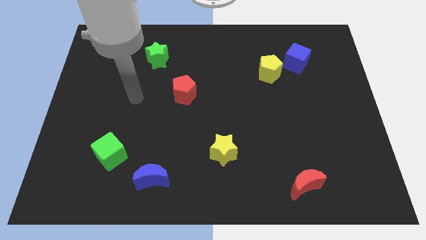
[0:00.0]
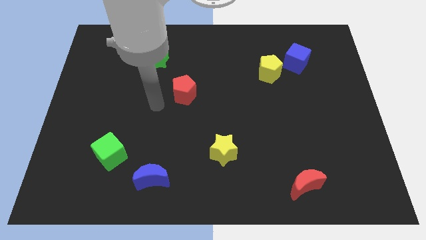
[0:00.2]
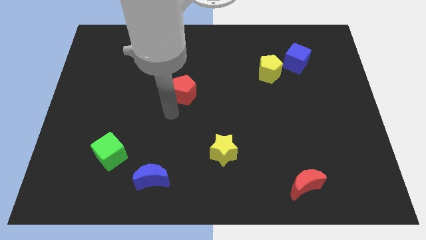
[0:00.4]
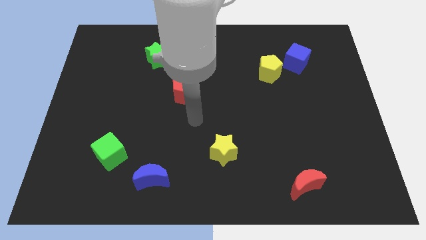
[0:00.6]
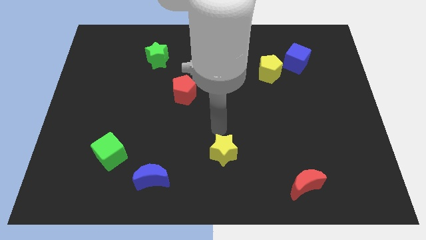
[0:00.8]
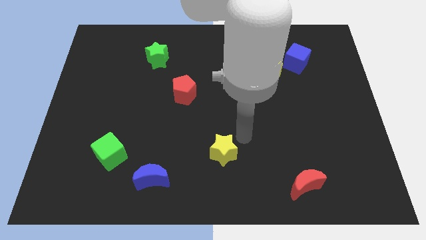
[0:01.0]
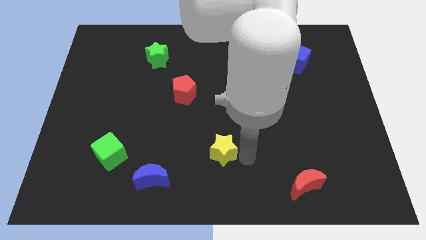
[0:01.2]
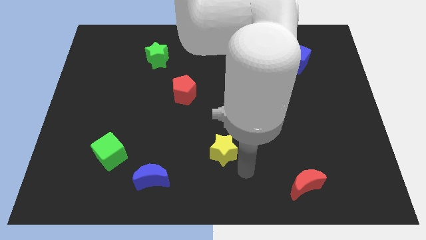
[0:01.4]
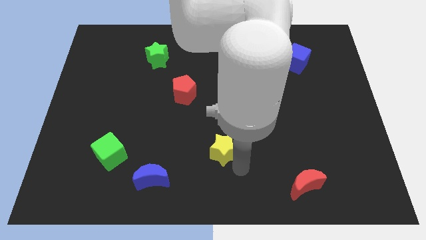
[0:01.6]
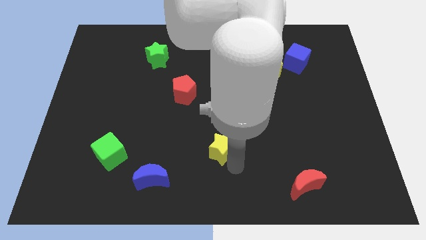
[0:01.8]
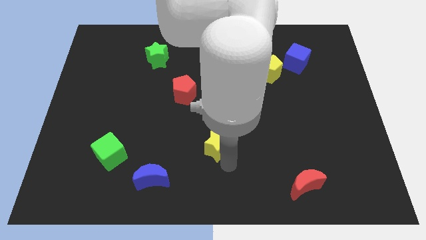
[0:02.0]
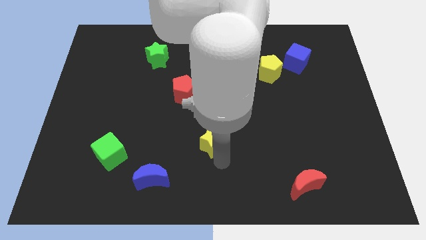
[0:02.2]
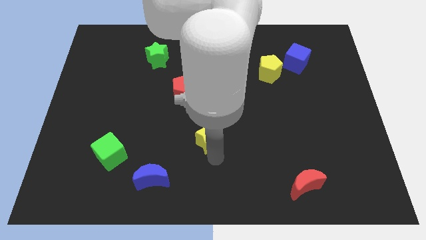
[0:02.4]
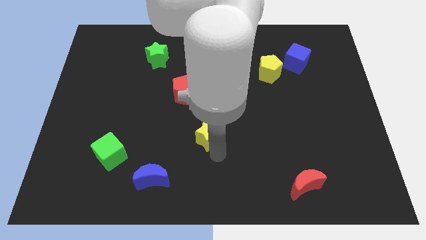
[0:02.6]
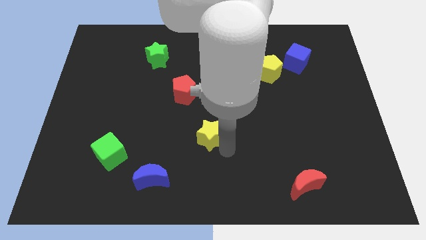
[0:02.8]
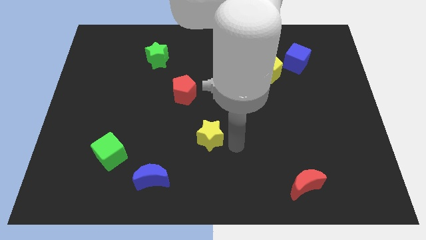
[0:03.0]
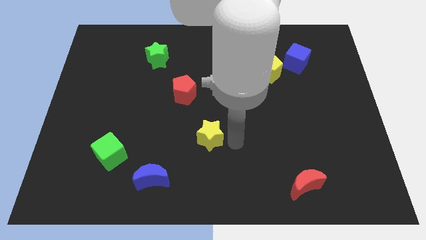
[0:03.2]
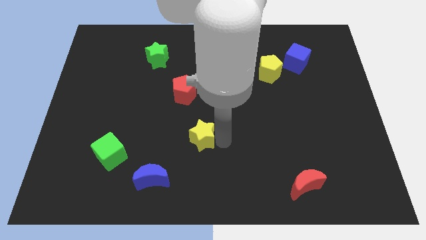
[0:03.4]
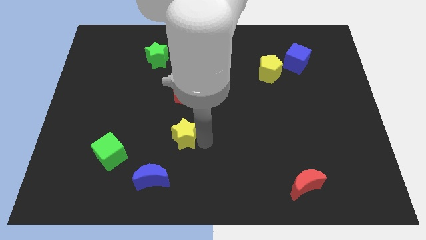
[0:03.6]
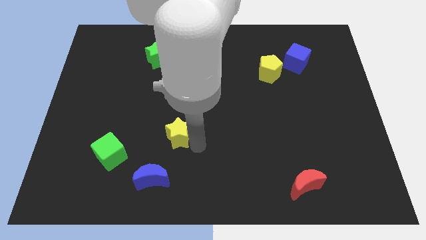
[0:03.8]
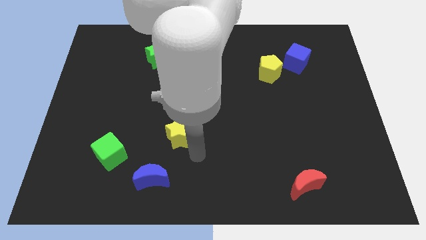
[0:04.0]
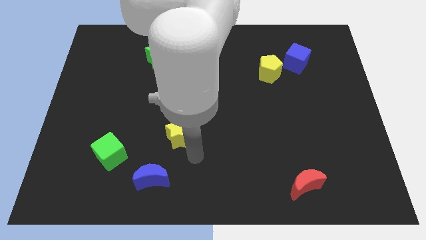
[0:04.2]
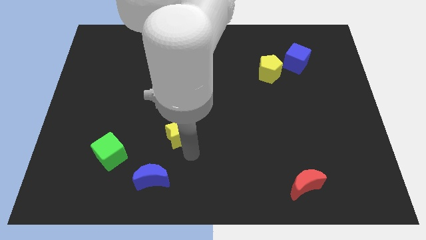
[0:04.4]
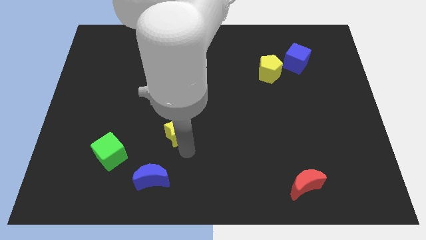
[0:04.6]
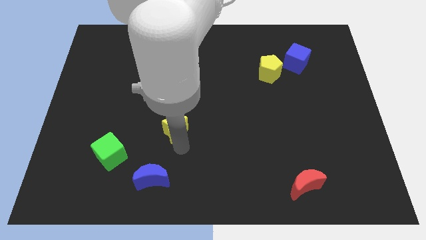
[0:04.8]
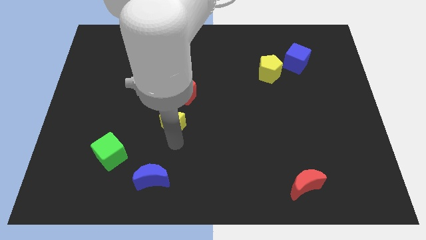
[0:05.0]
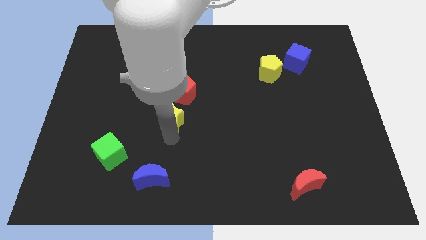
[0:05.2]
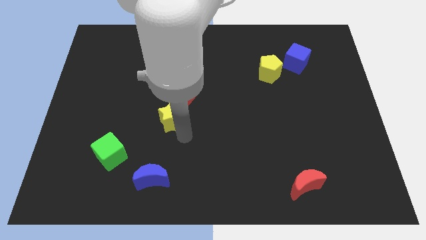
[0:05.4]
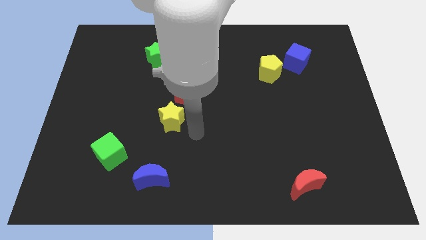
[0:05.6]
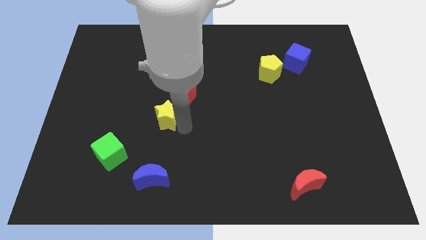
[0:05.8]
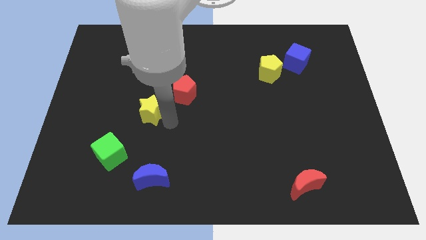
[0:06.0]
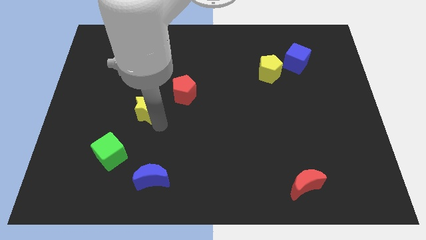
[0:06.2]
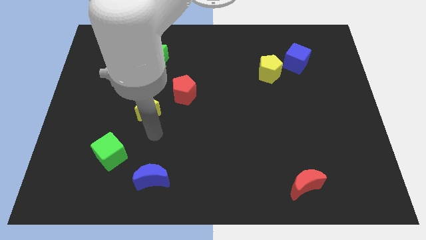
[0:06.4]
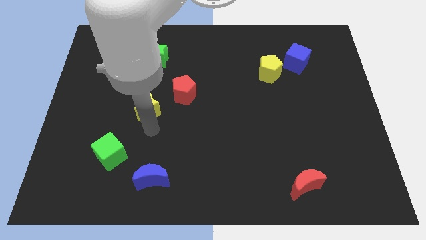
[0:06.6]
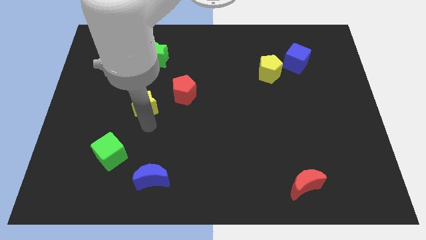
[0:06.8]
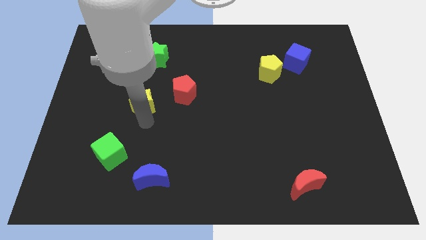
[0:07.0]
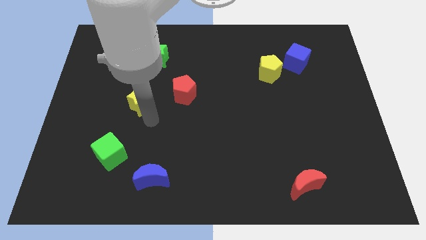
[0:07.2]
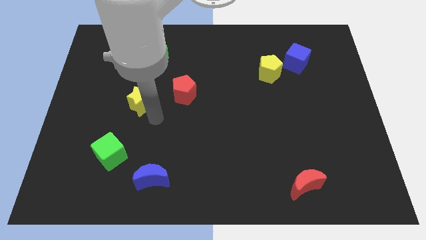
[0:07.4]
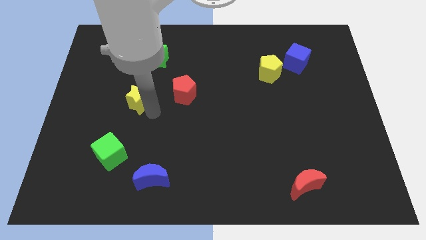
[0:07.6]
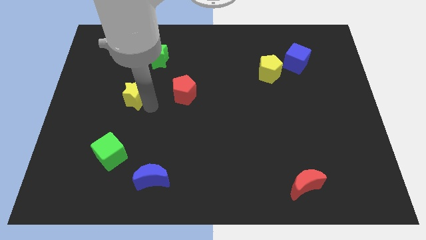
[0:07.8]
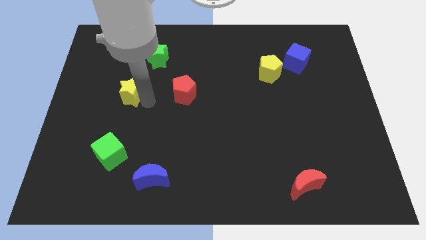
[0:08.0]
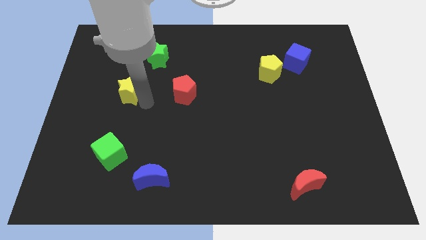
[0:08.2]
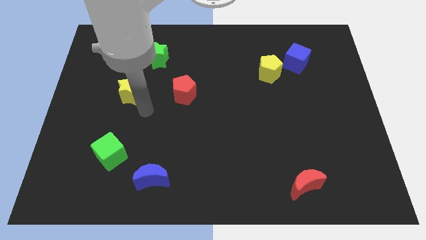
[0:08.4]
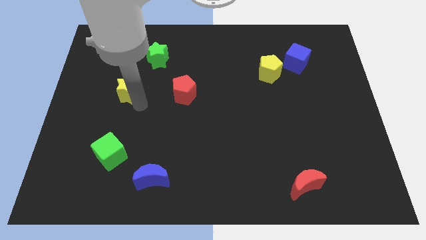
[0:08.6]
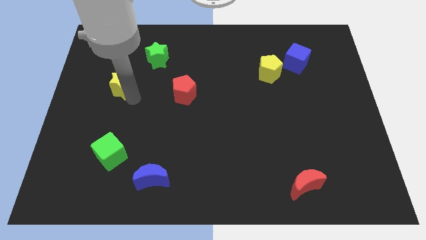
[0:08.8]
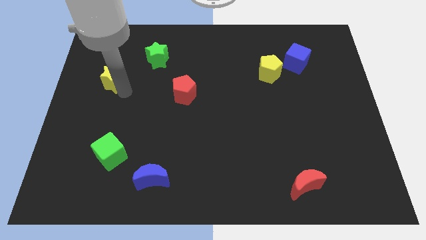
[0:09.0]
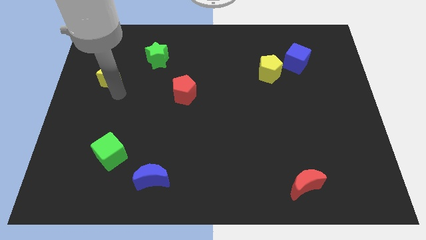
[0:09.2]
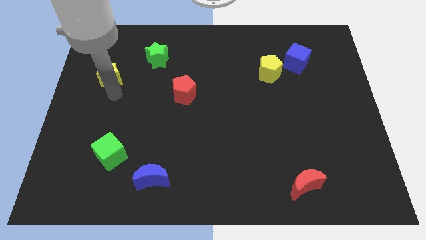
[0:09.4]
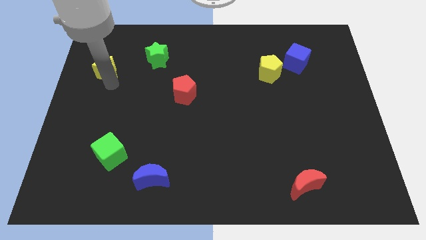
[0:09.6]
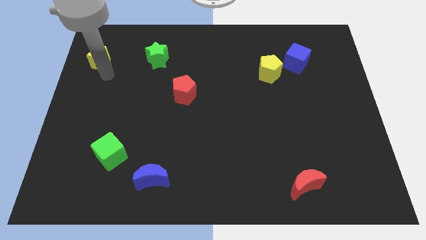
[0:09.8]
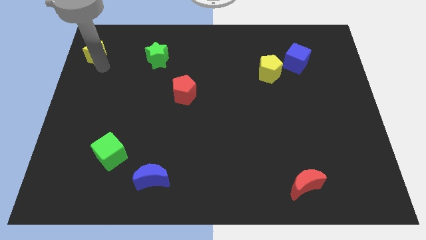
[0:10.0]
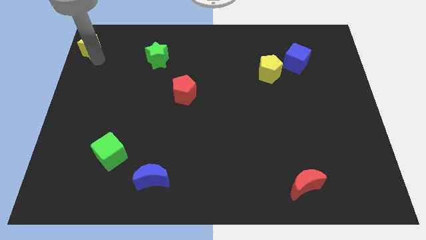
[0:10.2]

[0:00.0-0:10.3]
move the yellow star to the upper left corner

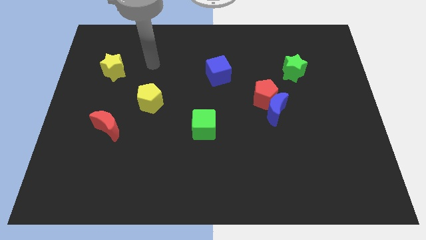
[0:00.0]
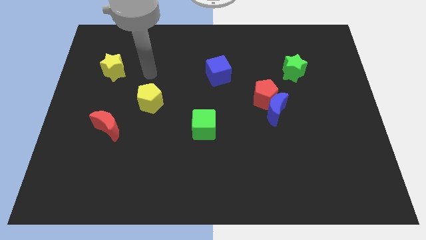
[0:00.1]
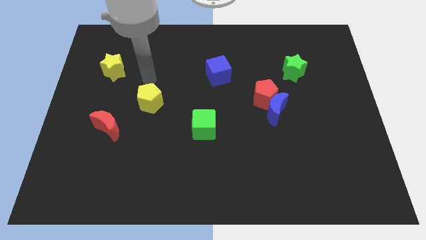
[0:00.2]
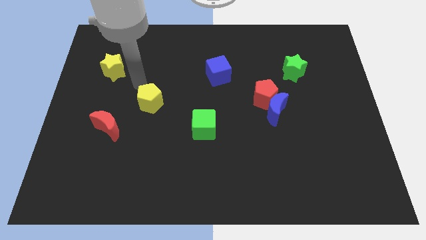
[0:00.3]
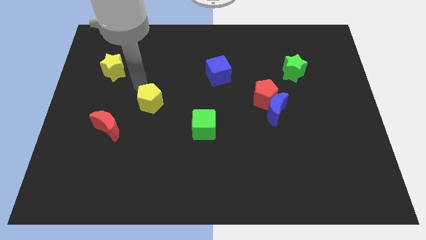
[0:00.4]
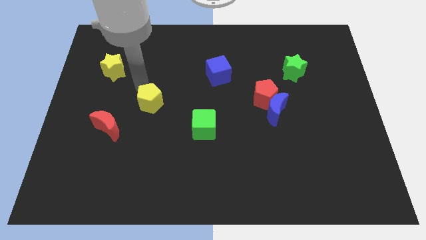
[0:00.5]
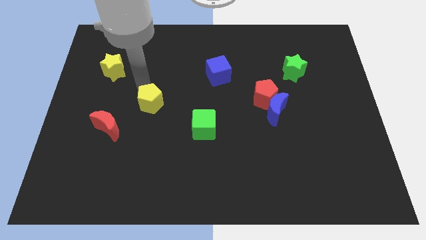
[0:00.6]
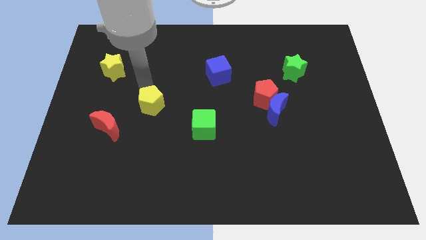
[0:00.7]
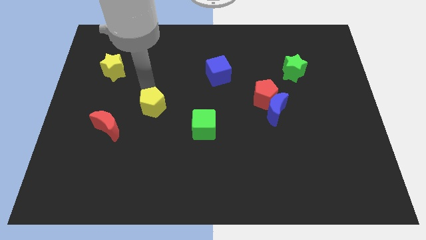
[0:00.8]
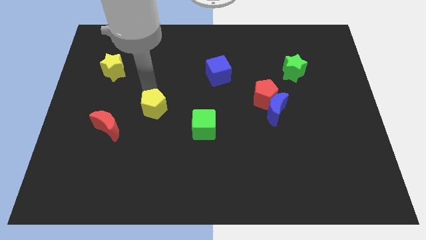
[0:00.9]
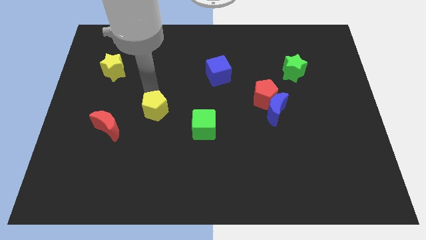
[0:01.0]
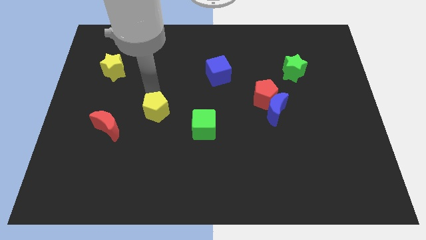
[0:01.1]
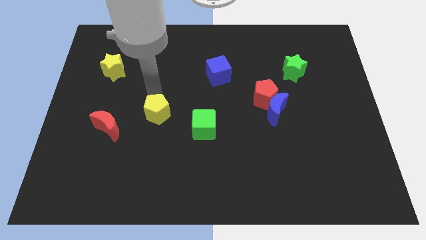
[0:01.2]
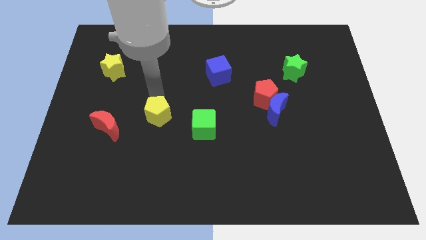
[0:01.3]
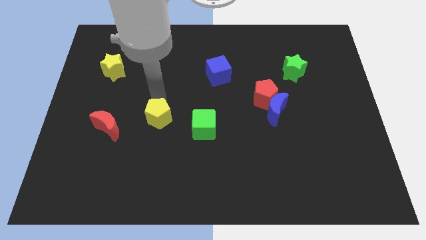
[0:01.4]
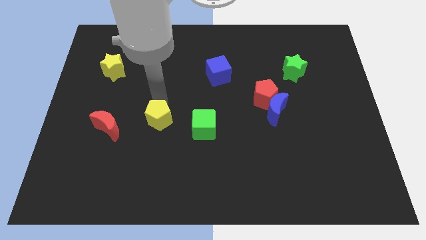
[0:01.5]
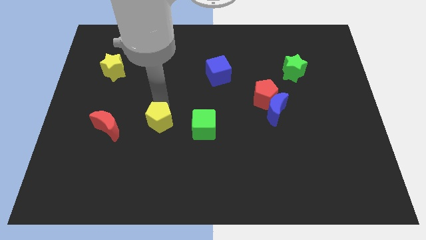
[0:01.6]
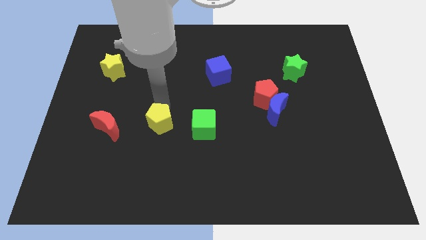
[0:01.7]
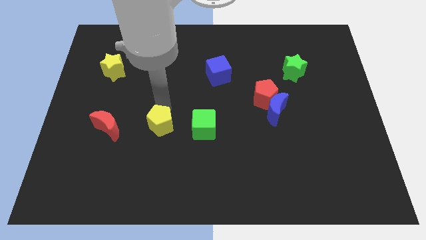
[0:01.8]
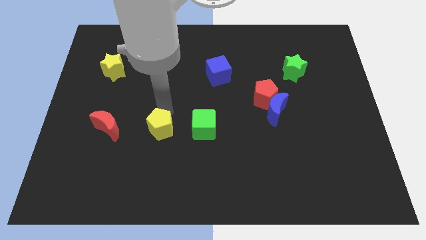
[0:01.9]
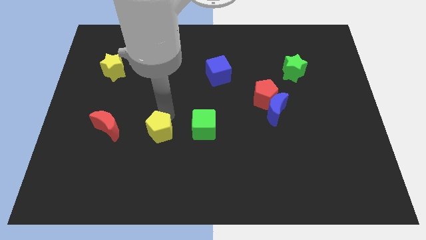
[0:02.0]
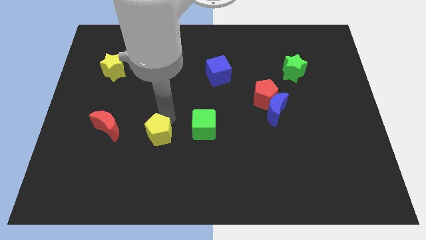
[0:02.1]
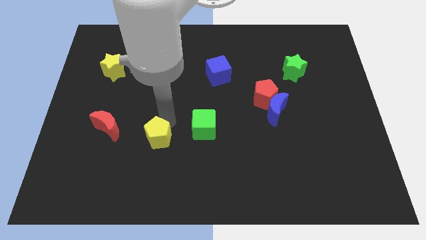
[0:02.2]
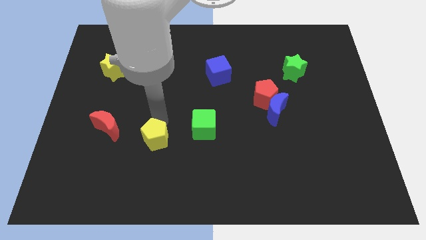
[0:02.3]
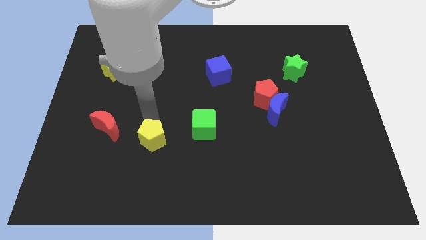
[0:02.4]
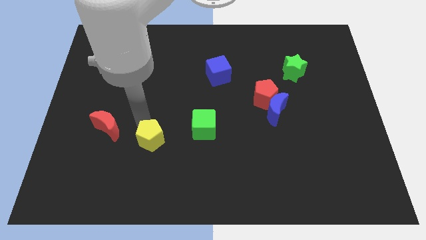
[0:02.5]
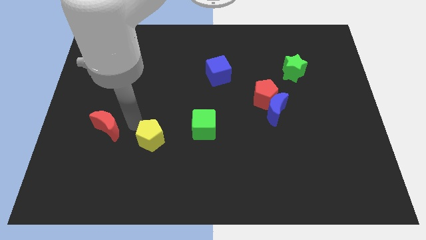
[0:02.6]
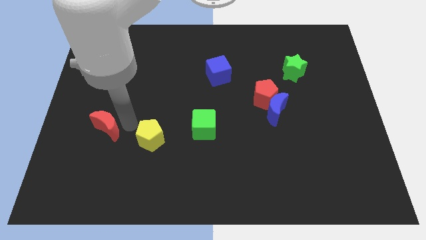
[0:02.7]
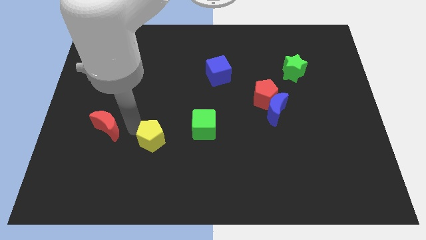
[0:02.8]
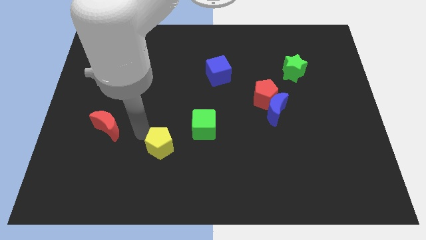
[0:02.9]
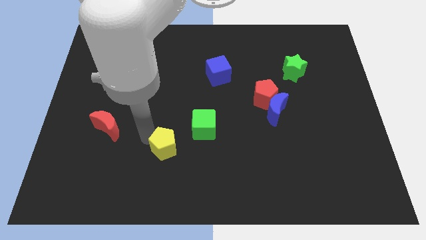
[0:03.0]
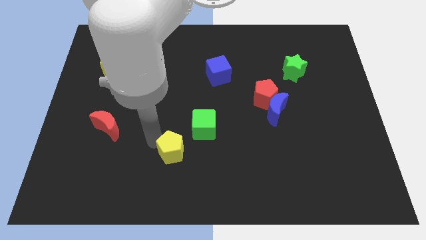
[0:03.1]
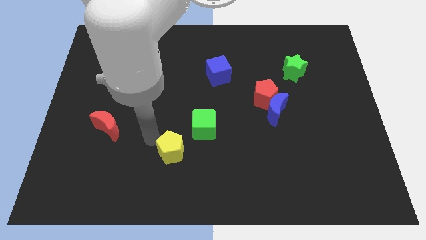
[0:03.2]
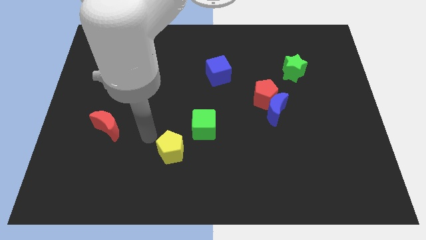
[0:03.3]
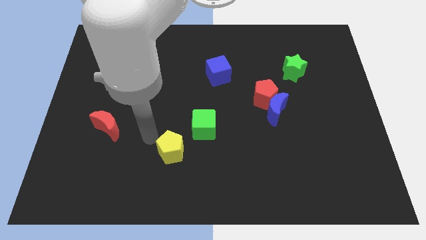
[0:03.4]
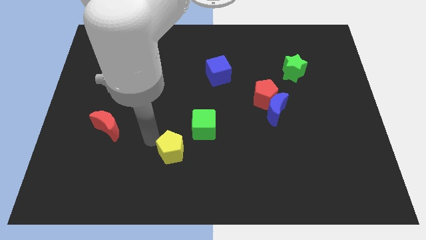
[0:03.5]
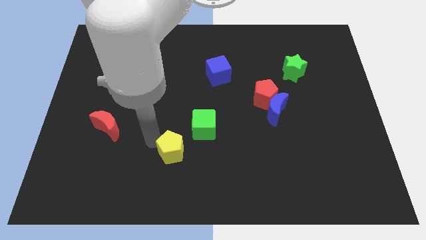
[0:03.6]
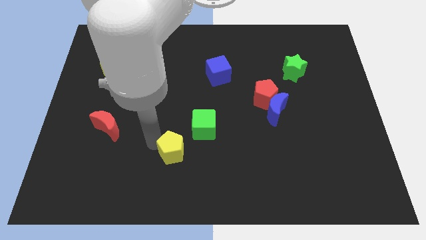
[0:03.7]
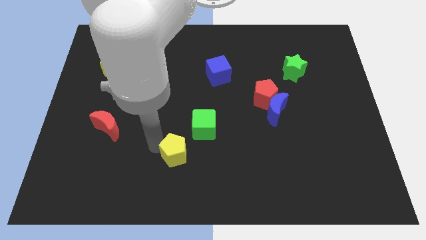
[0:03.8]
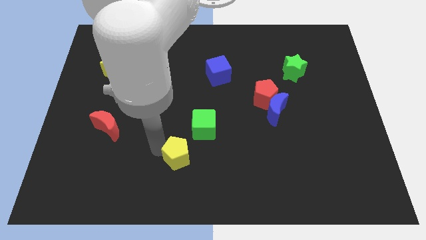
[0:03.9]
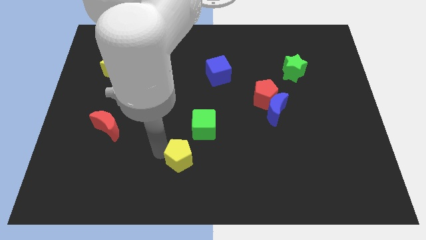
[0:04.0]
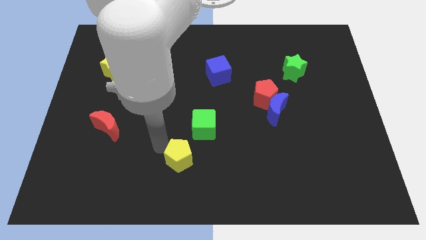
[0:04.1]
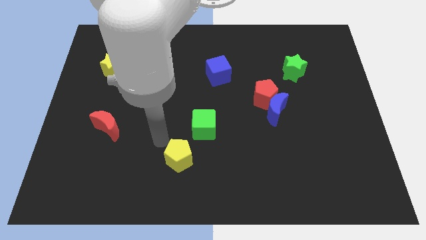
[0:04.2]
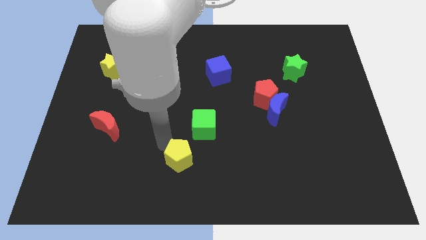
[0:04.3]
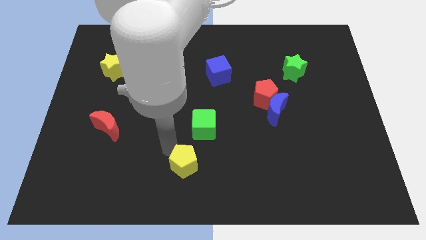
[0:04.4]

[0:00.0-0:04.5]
slide the yellow pentagon to the bottom side
